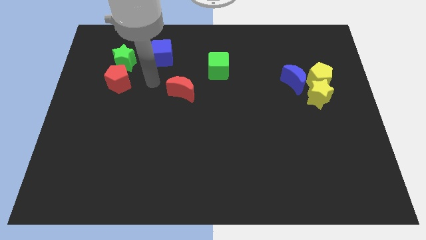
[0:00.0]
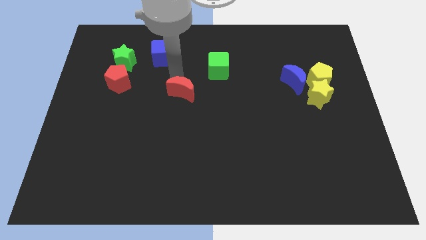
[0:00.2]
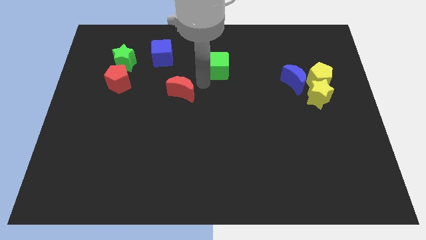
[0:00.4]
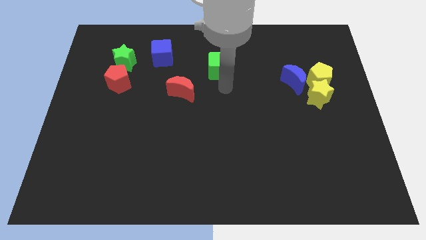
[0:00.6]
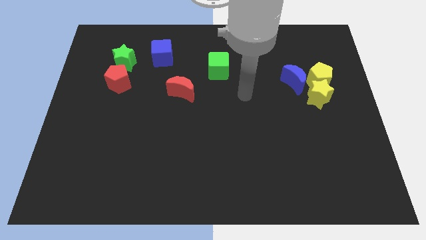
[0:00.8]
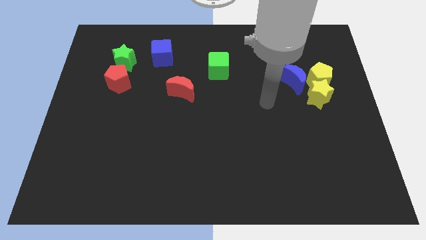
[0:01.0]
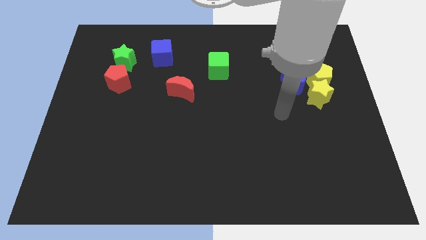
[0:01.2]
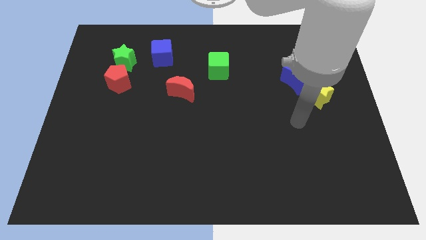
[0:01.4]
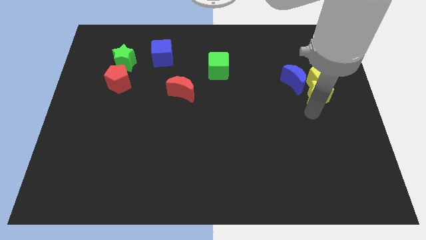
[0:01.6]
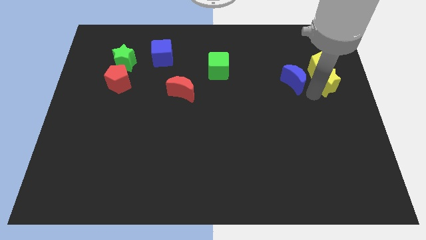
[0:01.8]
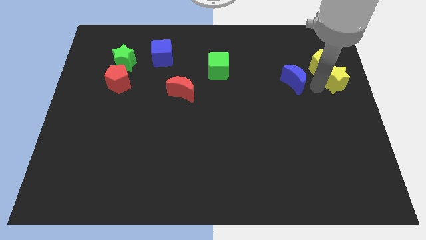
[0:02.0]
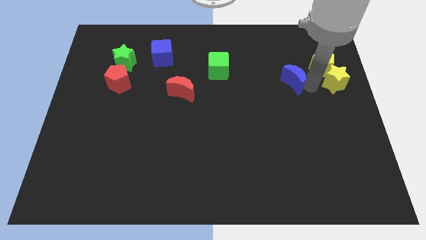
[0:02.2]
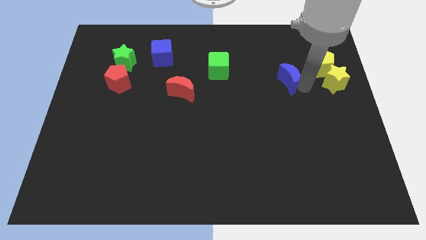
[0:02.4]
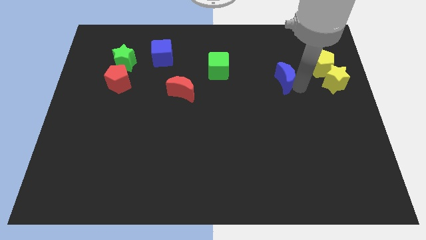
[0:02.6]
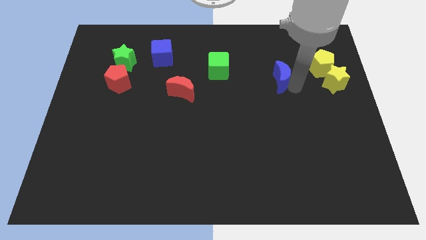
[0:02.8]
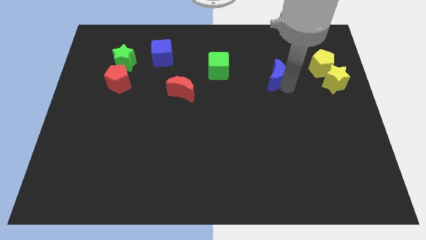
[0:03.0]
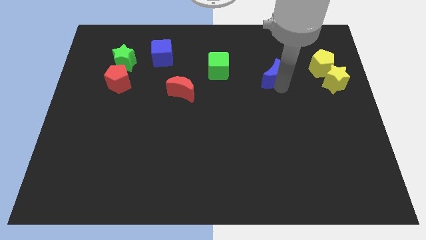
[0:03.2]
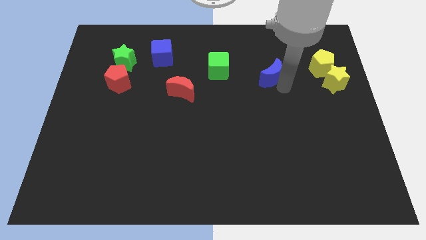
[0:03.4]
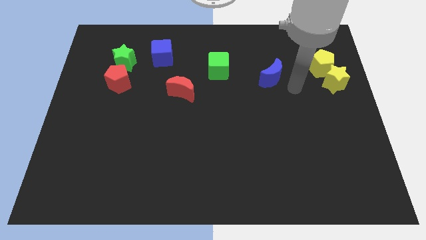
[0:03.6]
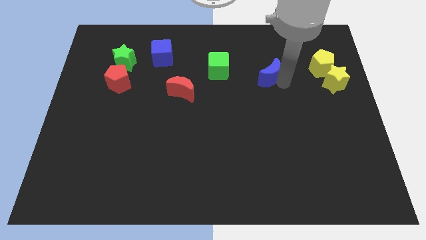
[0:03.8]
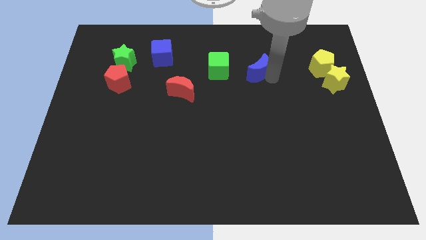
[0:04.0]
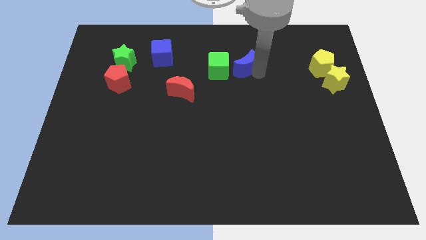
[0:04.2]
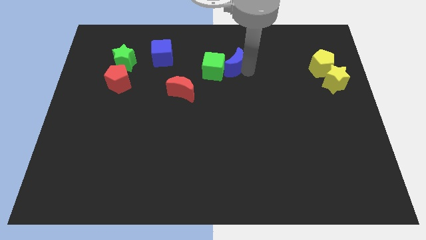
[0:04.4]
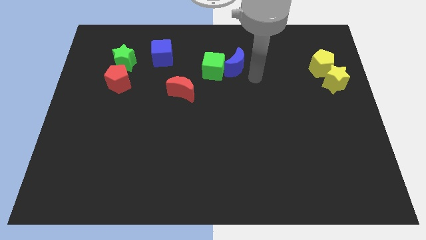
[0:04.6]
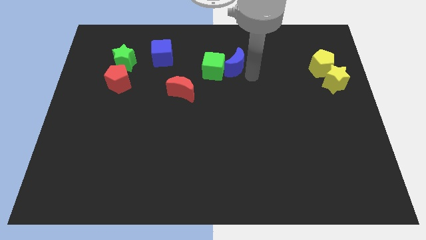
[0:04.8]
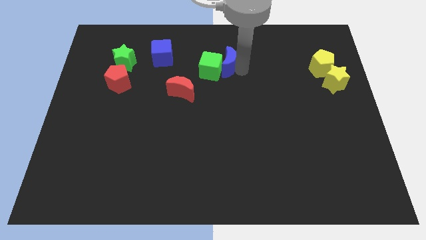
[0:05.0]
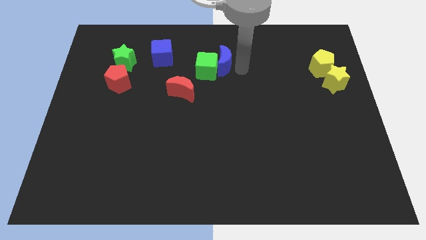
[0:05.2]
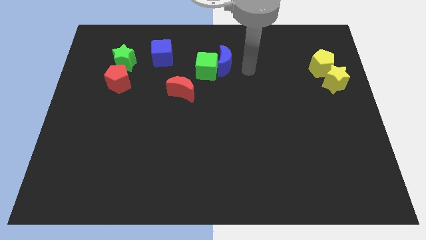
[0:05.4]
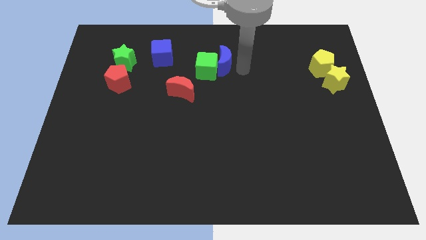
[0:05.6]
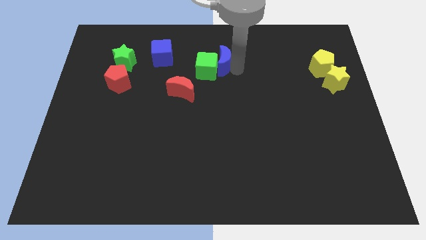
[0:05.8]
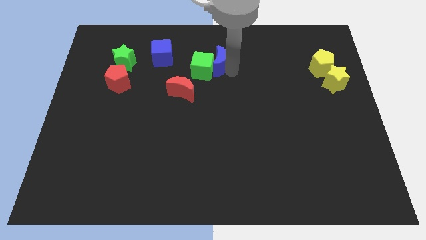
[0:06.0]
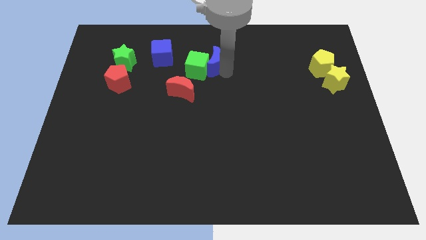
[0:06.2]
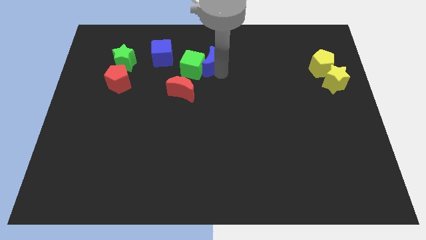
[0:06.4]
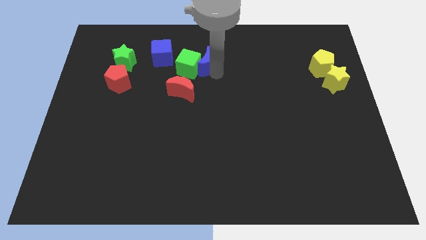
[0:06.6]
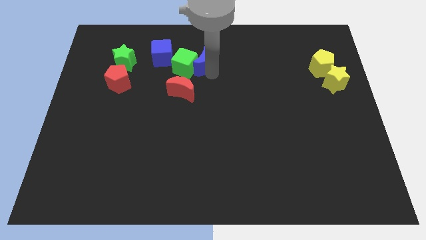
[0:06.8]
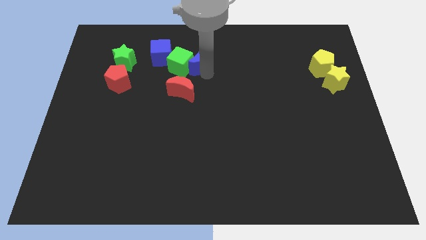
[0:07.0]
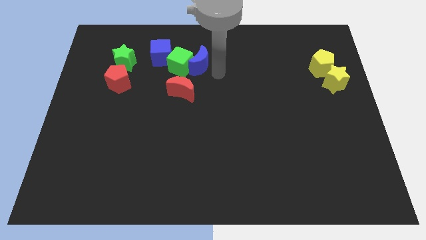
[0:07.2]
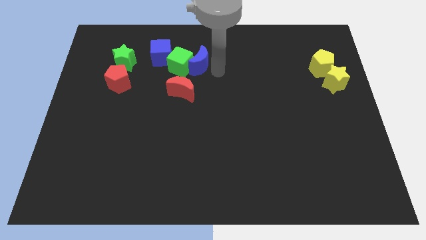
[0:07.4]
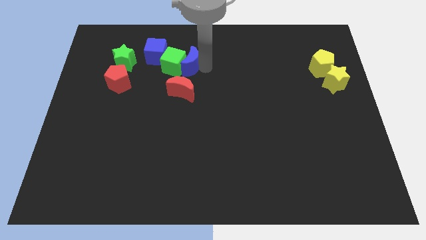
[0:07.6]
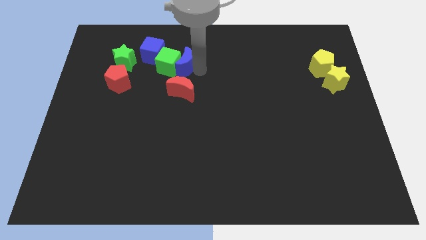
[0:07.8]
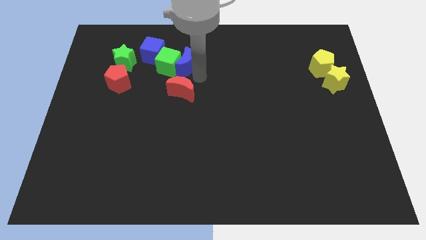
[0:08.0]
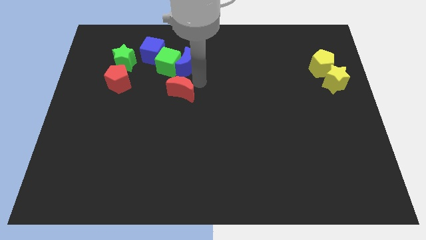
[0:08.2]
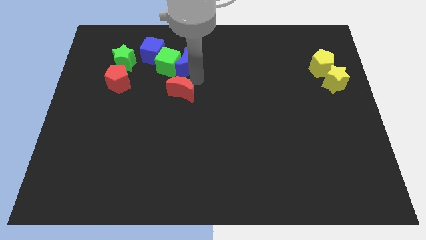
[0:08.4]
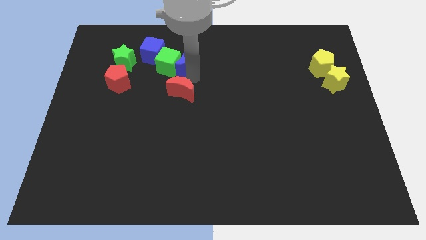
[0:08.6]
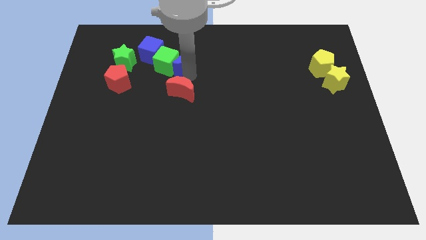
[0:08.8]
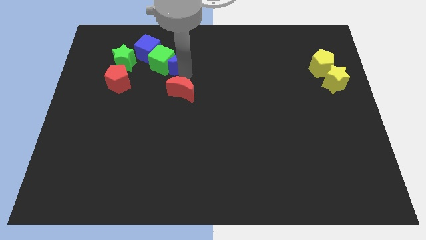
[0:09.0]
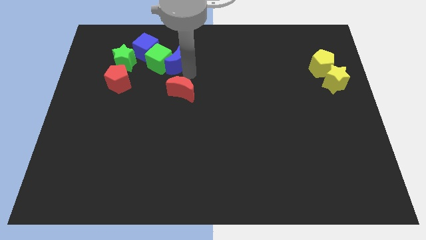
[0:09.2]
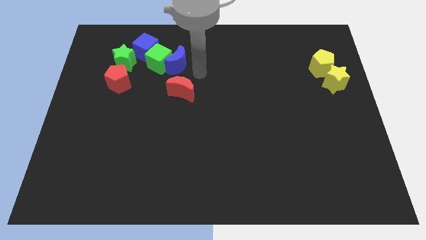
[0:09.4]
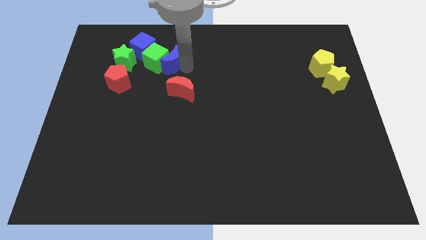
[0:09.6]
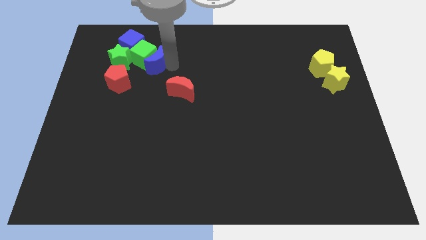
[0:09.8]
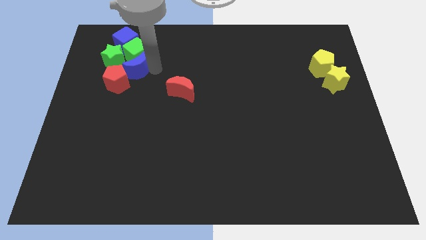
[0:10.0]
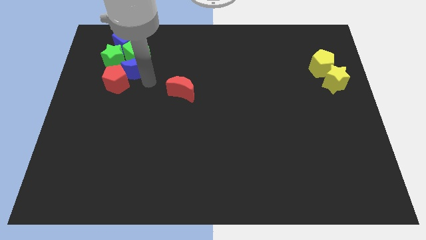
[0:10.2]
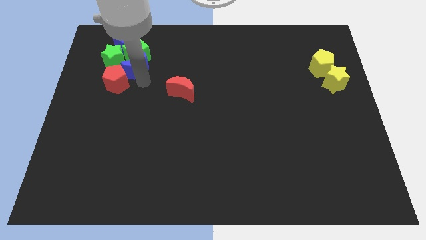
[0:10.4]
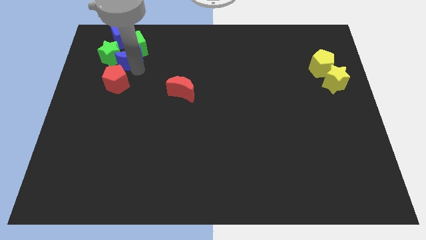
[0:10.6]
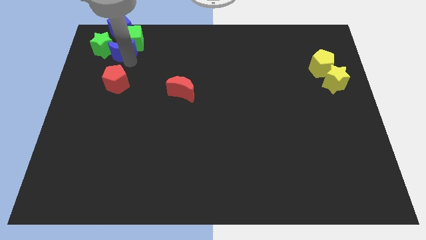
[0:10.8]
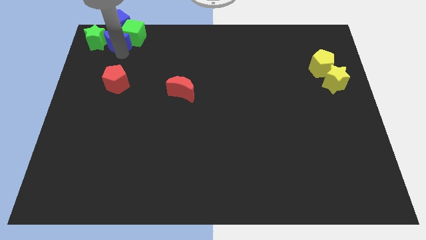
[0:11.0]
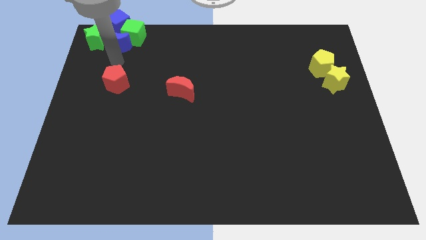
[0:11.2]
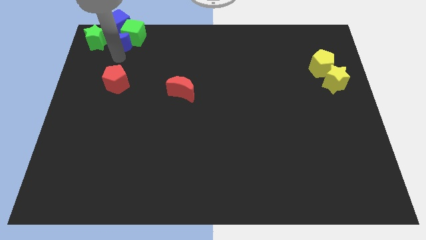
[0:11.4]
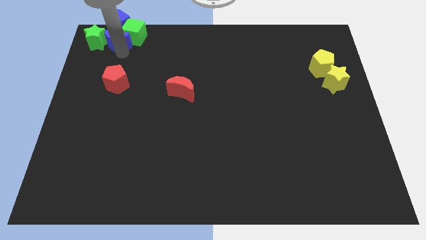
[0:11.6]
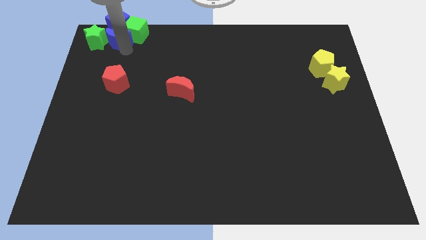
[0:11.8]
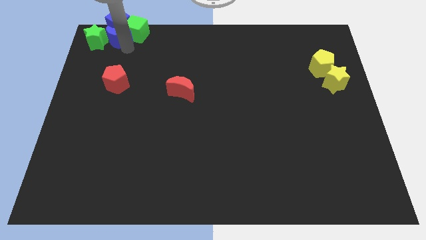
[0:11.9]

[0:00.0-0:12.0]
move the blue moon next to the blue cube

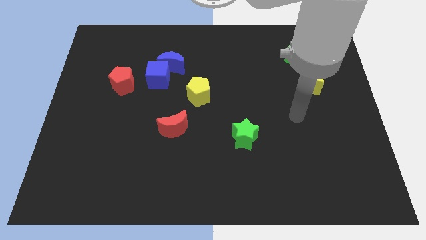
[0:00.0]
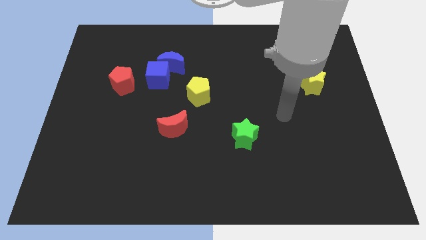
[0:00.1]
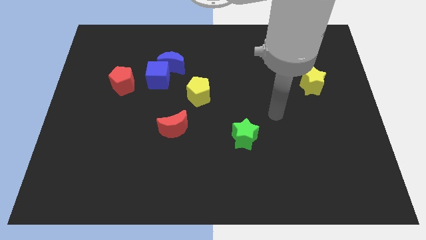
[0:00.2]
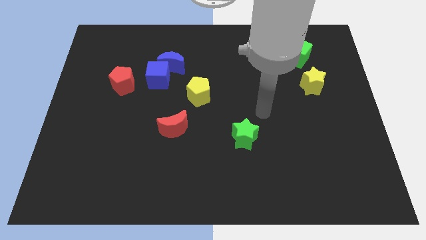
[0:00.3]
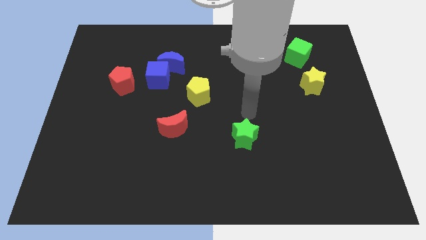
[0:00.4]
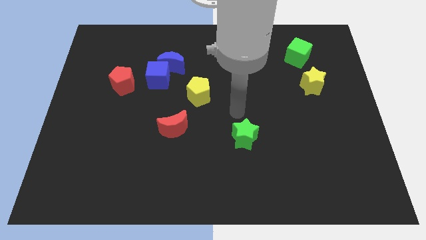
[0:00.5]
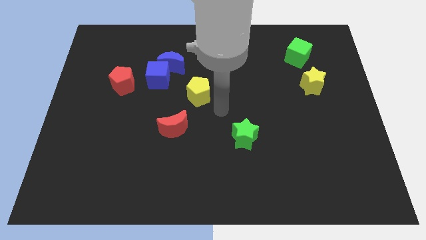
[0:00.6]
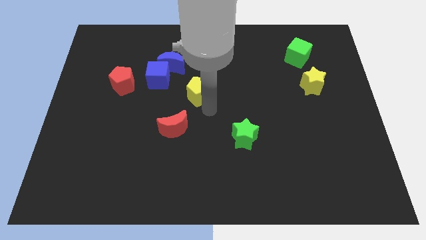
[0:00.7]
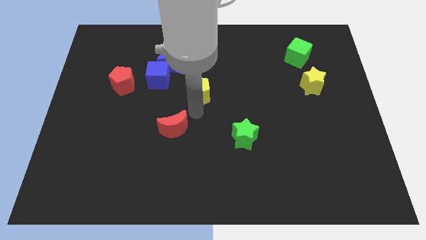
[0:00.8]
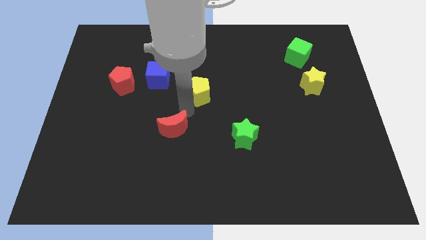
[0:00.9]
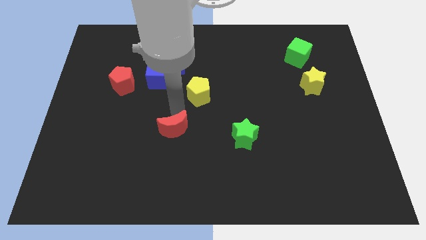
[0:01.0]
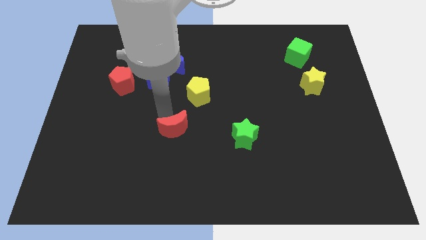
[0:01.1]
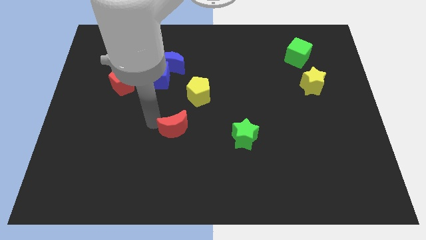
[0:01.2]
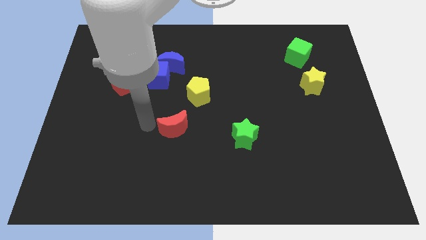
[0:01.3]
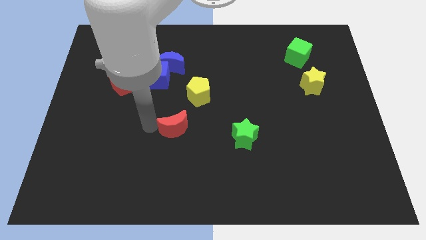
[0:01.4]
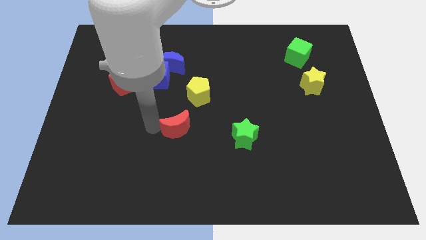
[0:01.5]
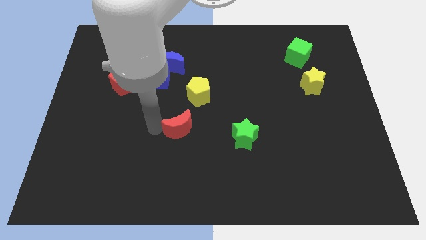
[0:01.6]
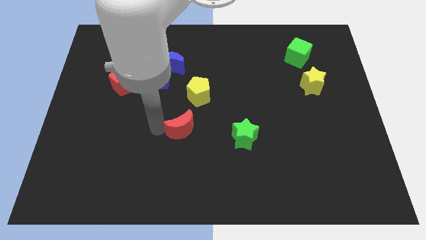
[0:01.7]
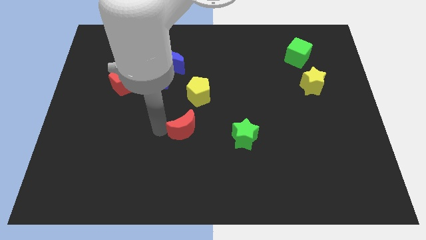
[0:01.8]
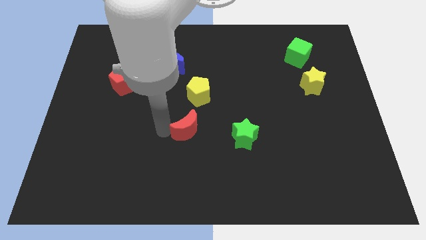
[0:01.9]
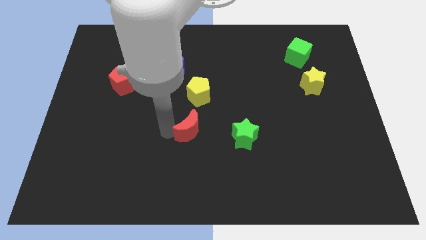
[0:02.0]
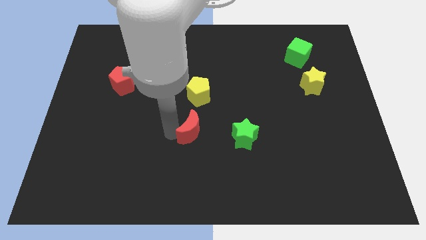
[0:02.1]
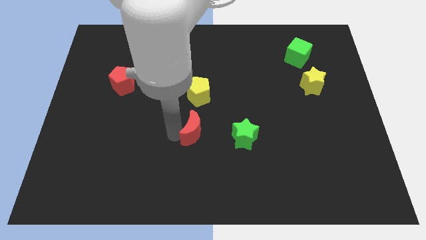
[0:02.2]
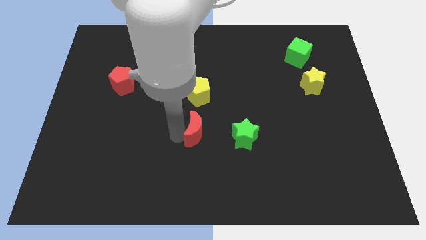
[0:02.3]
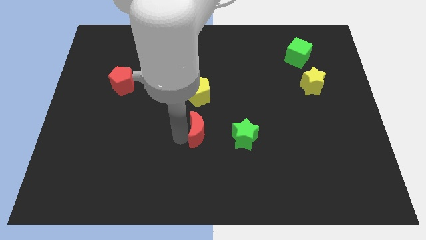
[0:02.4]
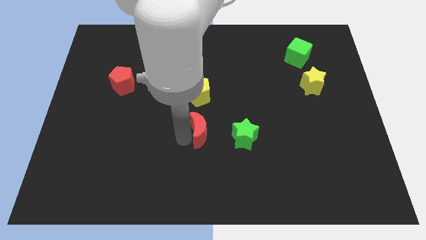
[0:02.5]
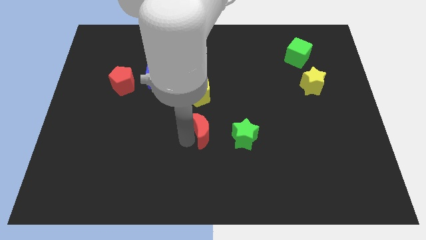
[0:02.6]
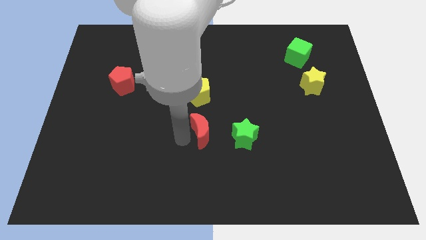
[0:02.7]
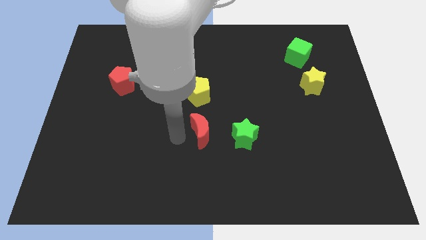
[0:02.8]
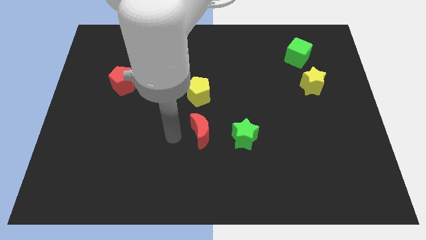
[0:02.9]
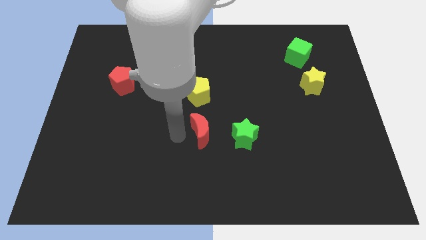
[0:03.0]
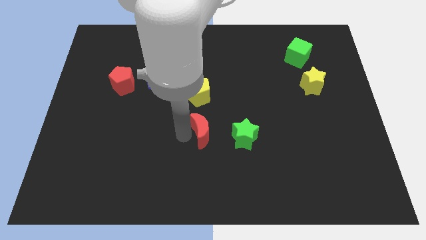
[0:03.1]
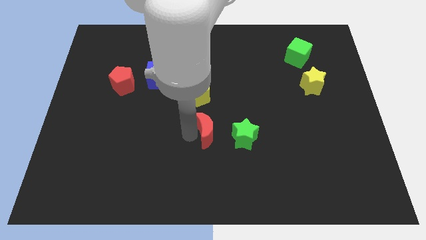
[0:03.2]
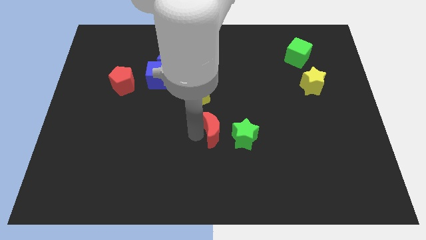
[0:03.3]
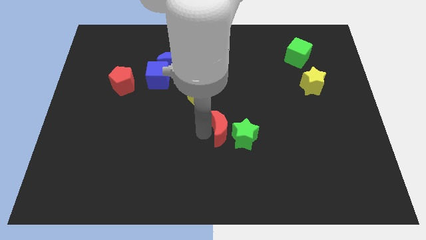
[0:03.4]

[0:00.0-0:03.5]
put the red moon close to the green star
